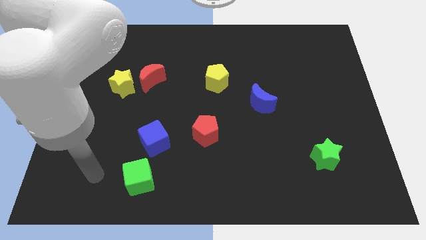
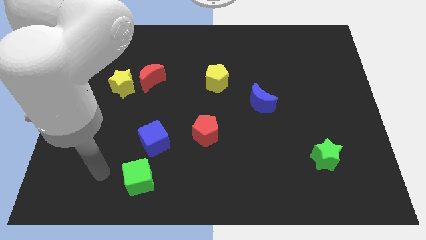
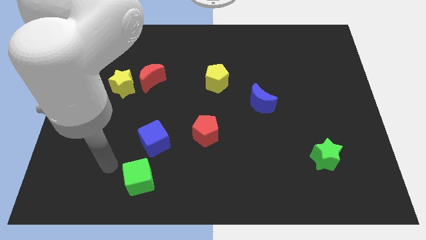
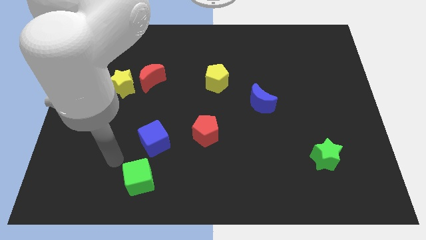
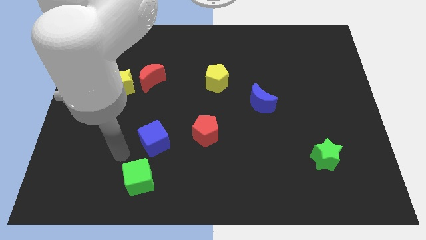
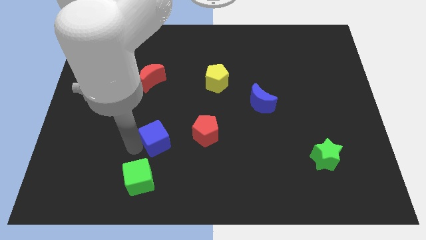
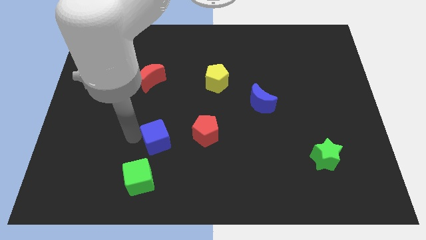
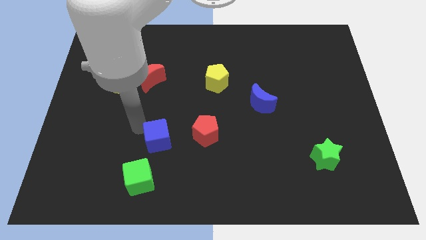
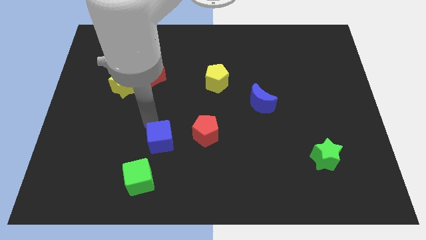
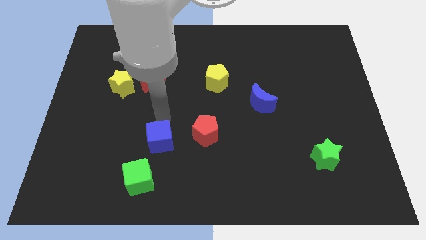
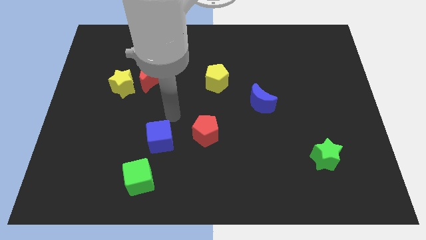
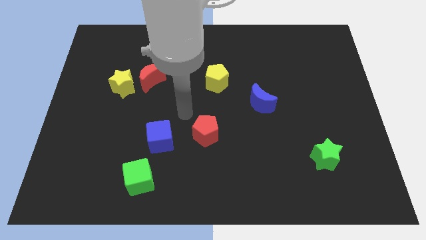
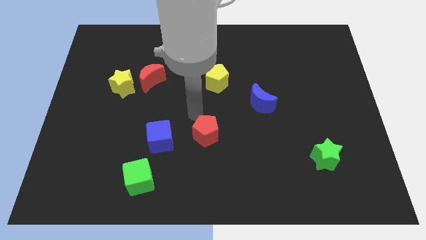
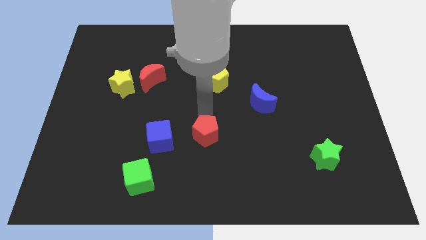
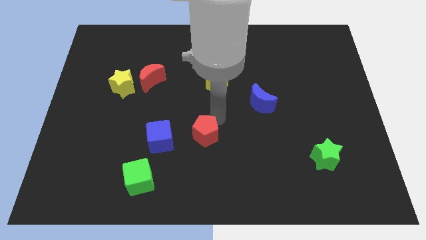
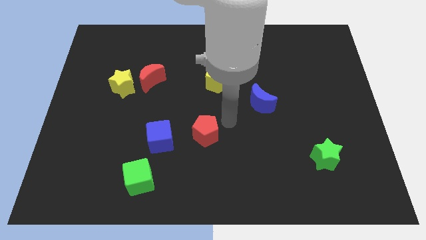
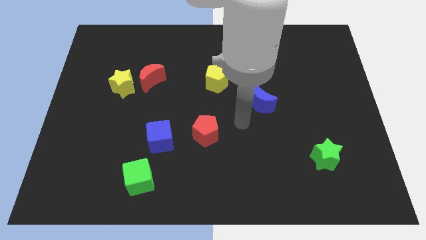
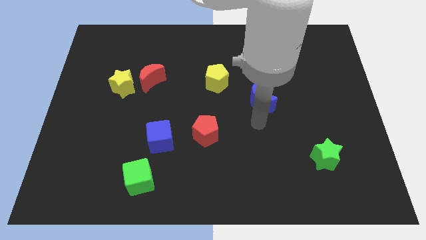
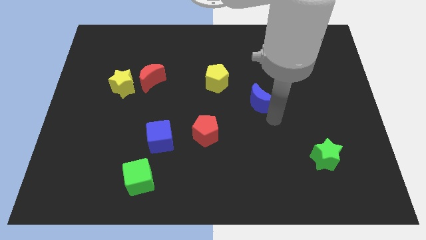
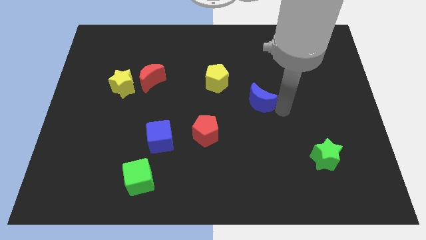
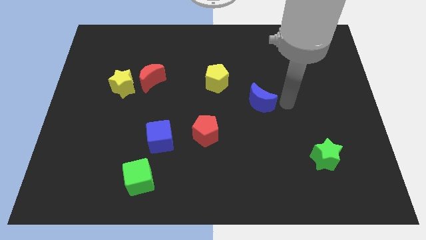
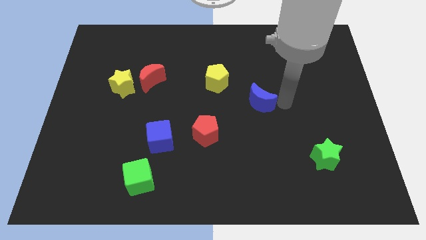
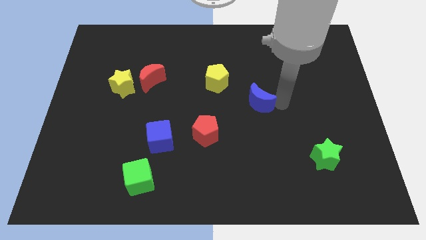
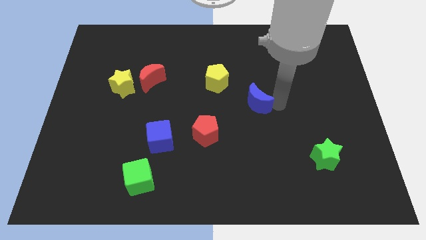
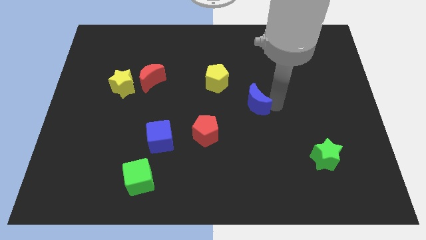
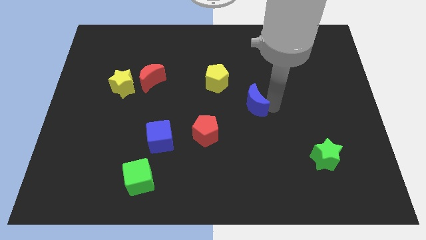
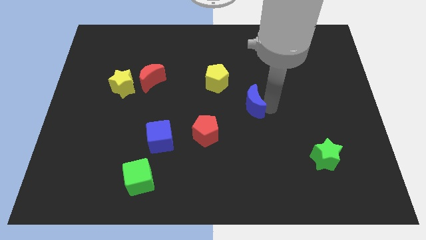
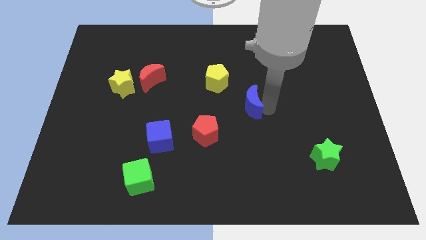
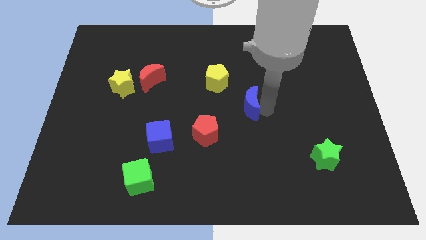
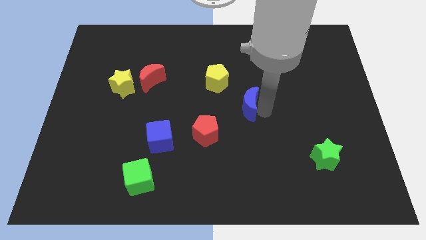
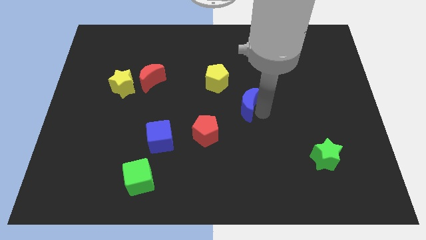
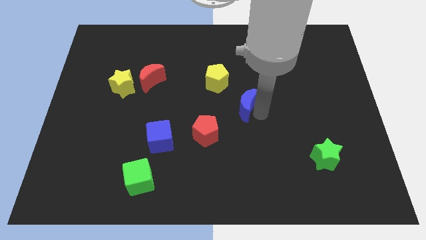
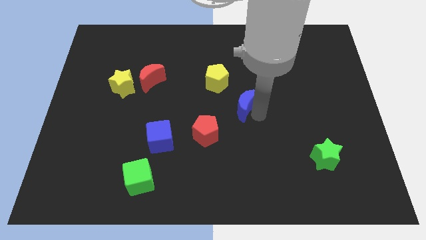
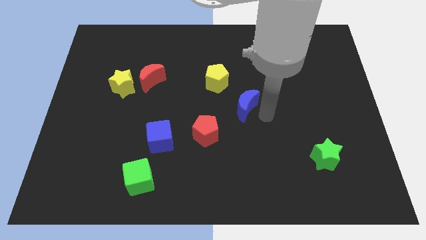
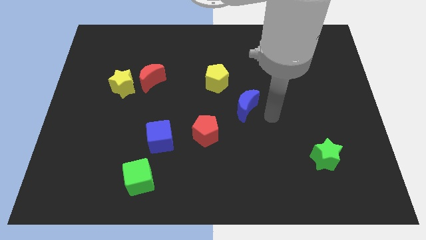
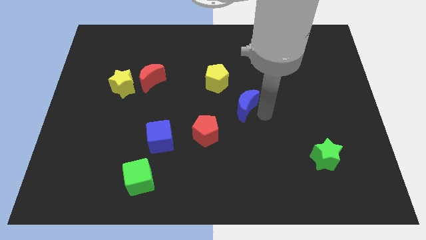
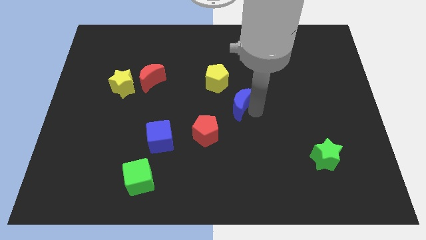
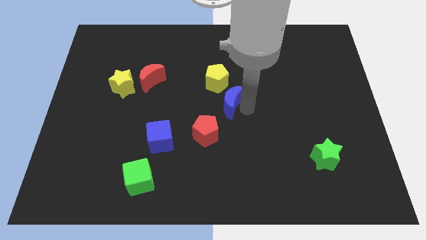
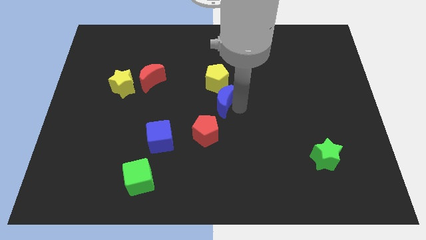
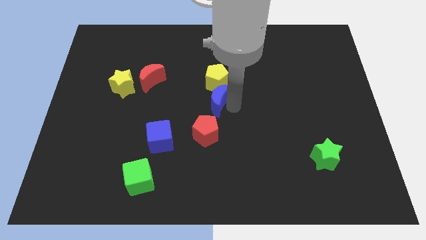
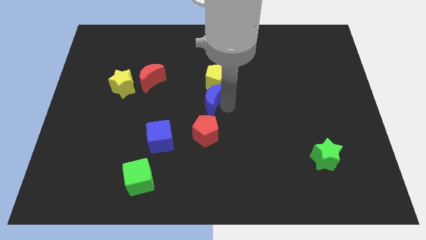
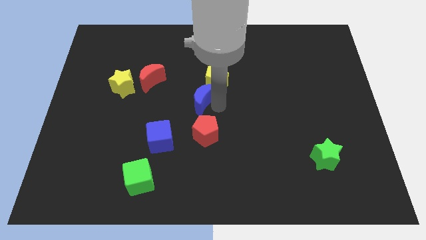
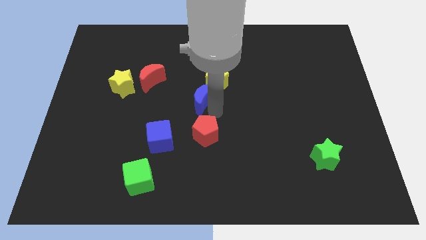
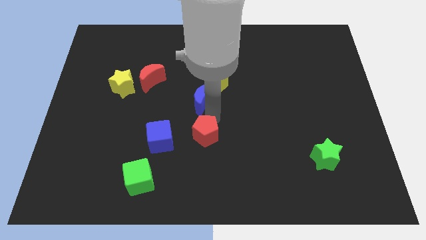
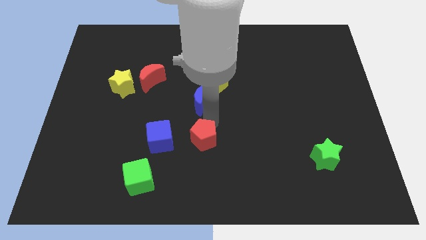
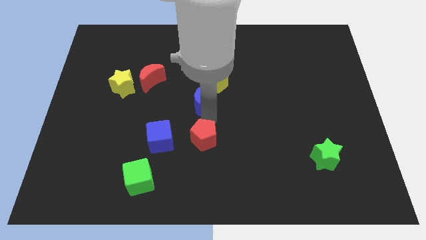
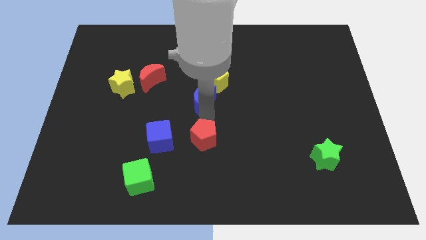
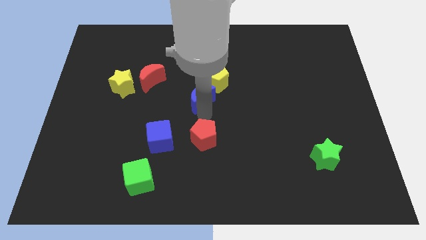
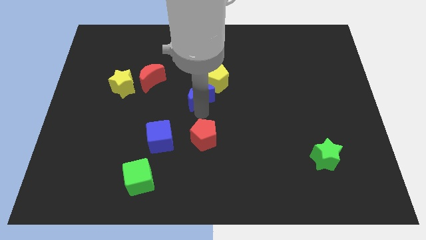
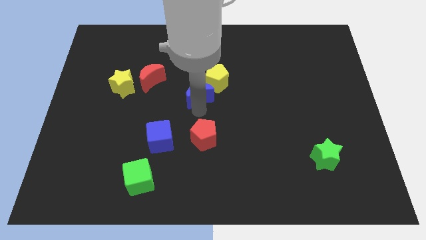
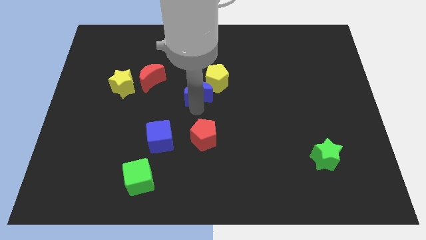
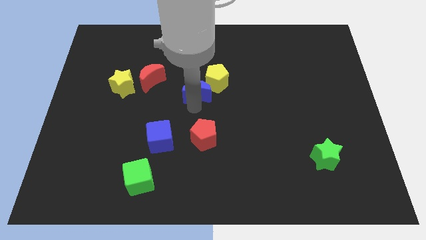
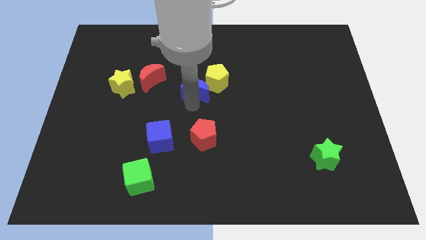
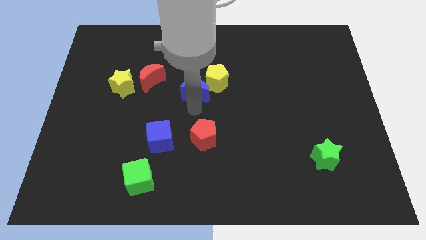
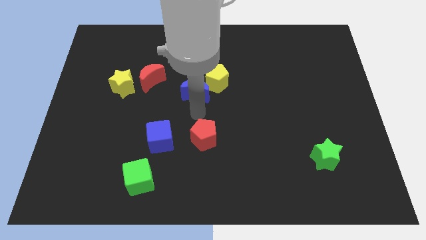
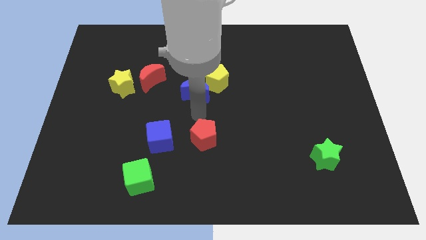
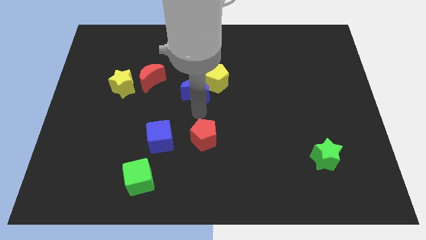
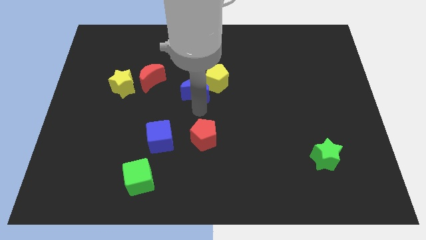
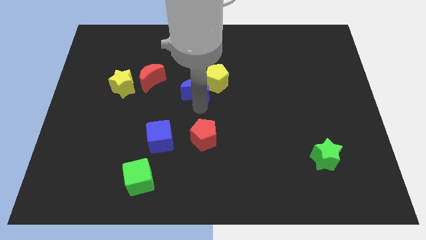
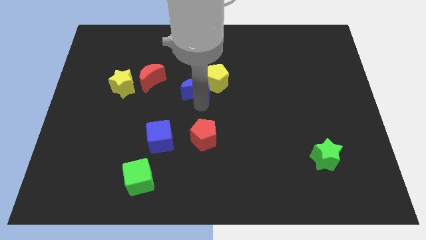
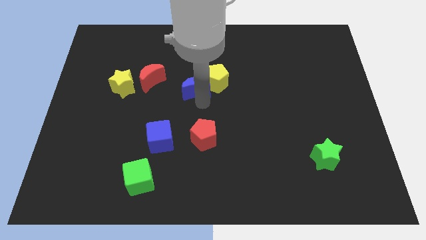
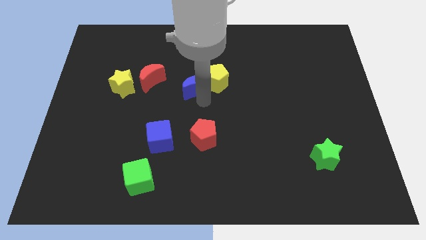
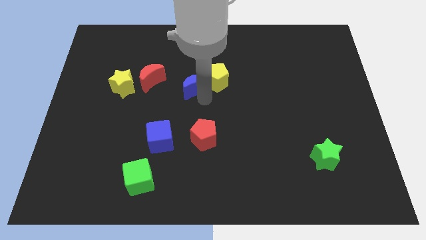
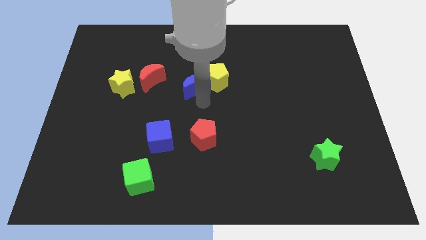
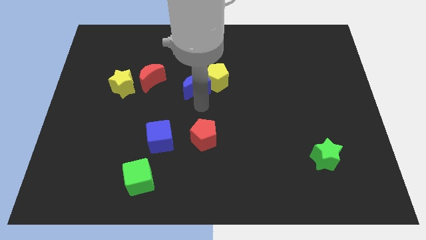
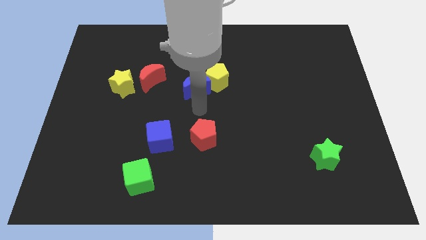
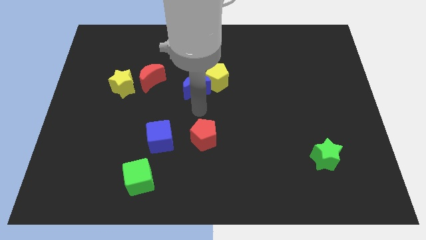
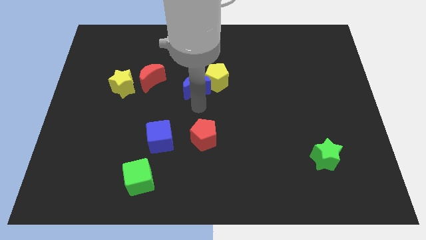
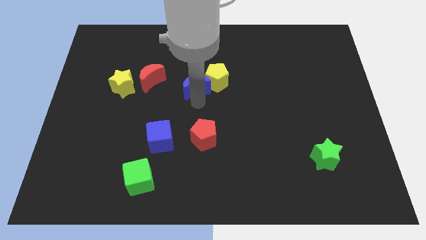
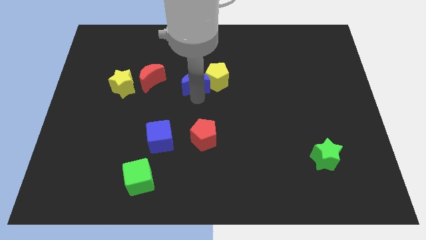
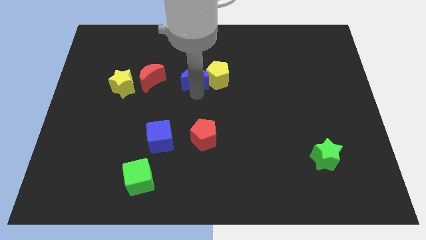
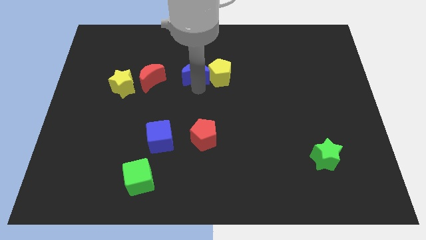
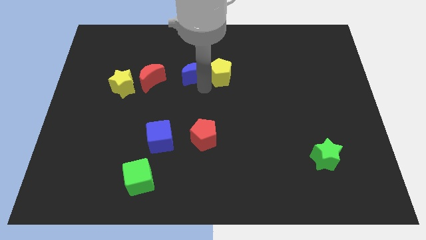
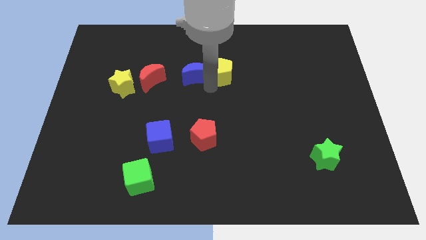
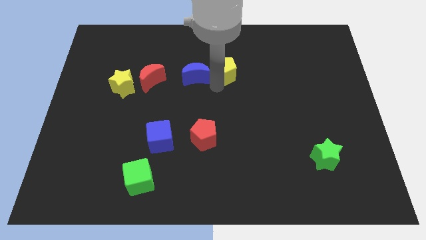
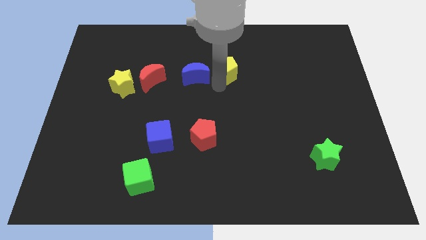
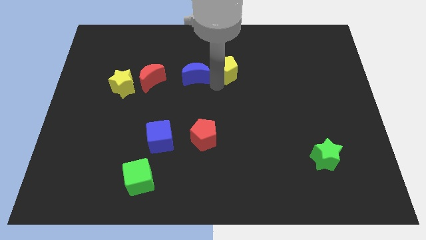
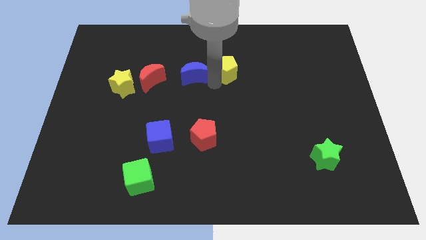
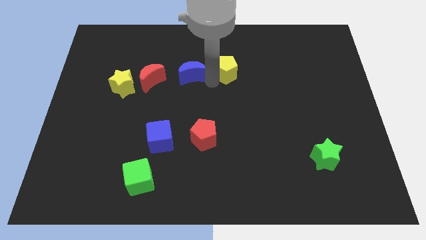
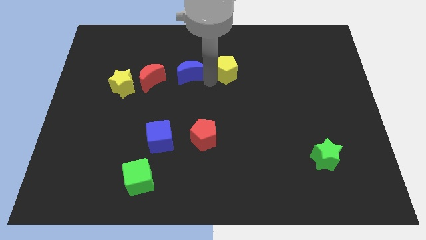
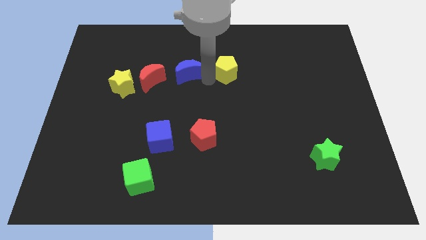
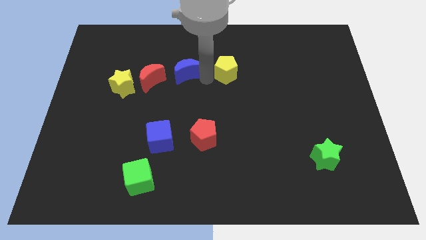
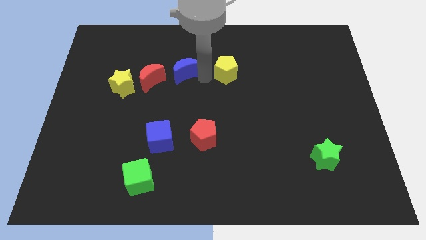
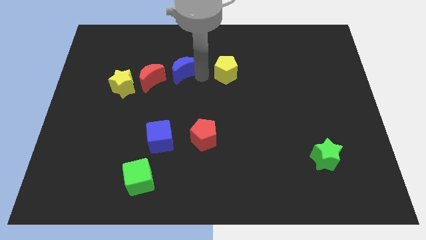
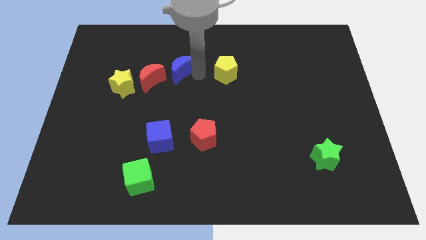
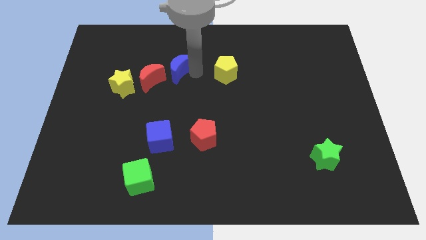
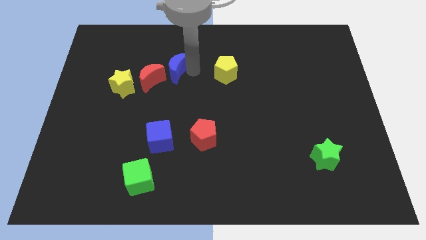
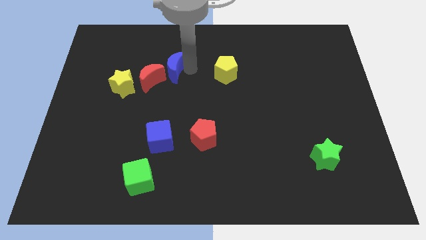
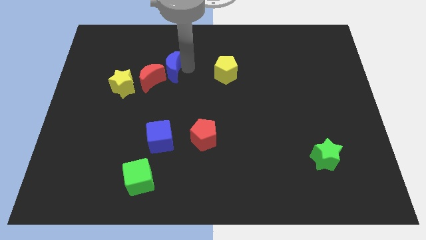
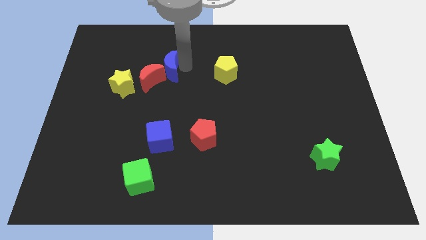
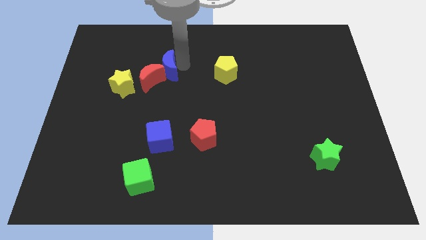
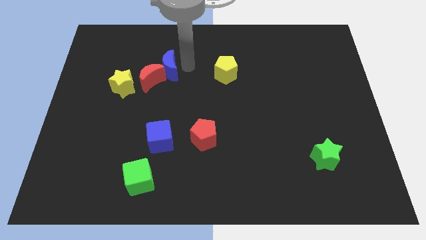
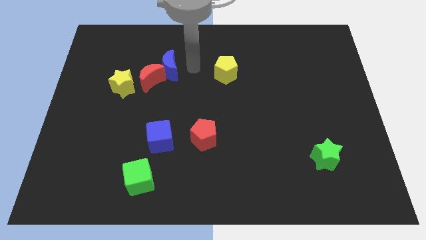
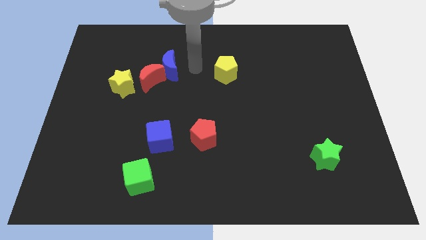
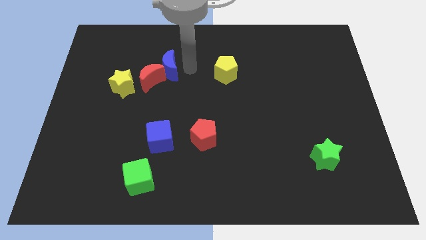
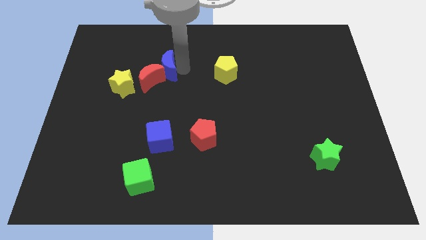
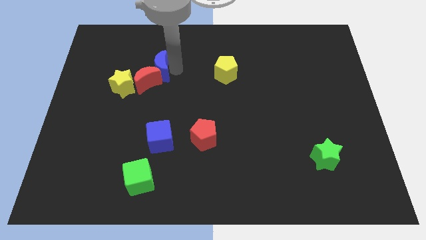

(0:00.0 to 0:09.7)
move the blue moon to the top right of the yellow star
